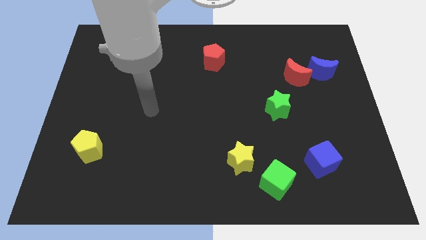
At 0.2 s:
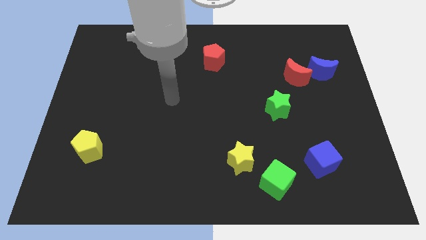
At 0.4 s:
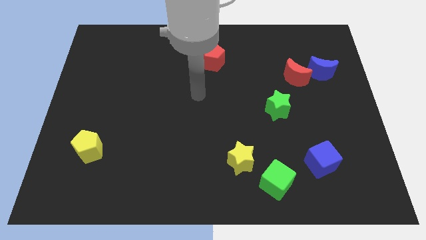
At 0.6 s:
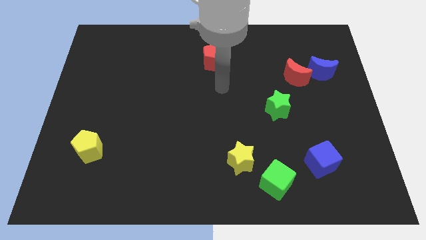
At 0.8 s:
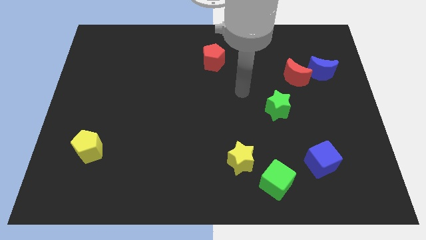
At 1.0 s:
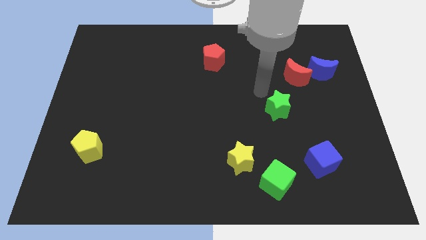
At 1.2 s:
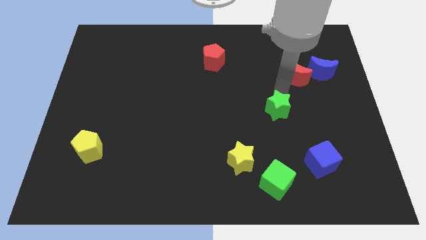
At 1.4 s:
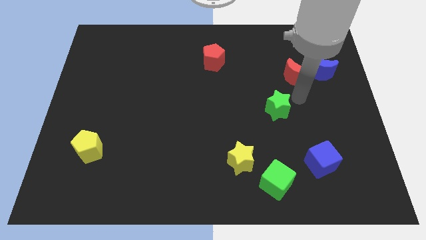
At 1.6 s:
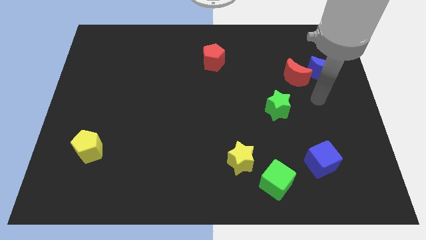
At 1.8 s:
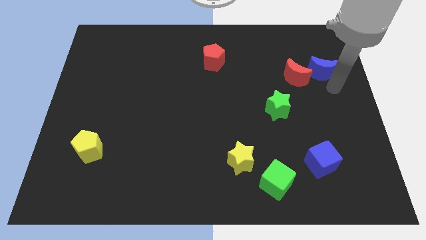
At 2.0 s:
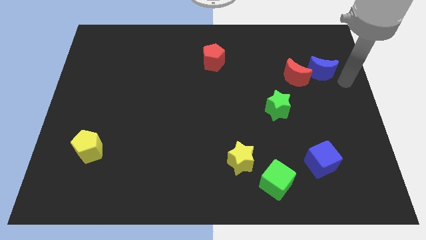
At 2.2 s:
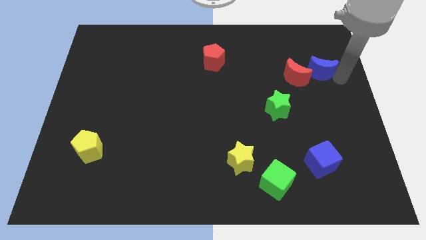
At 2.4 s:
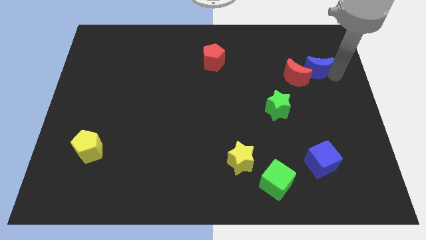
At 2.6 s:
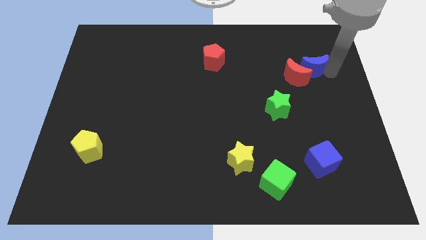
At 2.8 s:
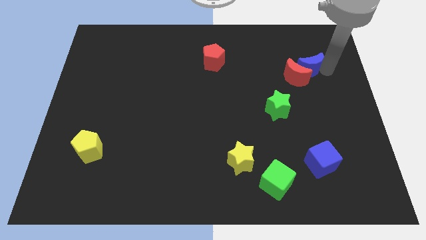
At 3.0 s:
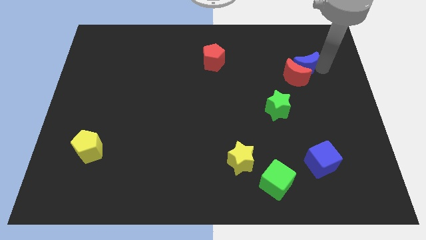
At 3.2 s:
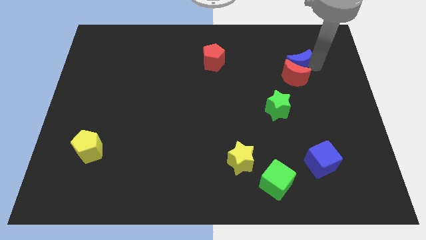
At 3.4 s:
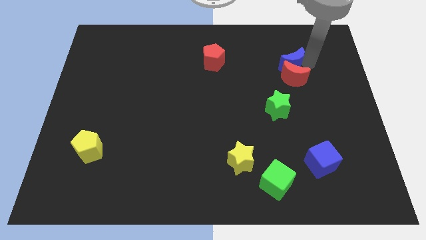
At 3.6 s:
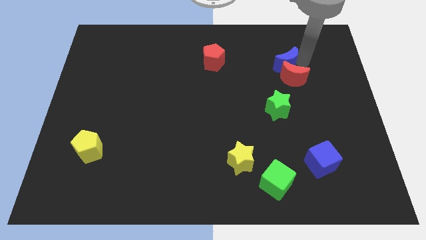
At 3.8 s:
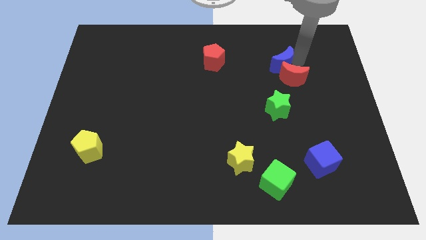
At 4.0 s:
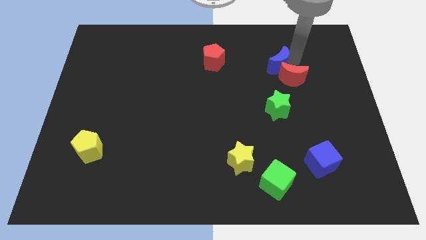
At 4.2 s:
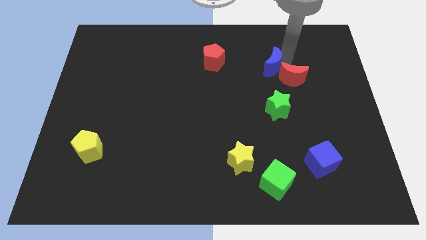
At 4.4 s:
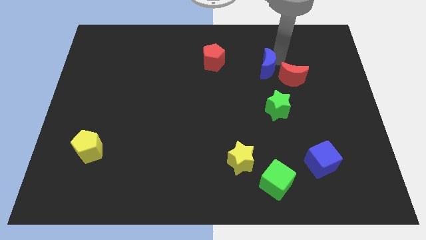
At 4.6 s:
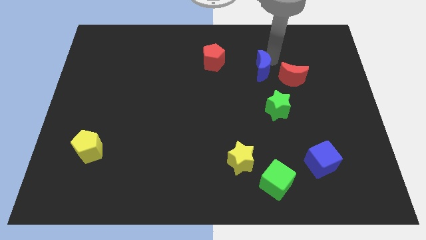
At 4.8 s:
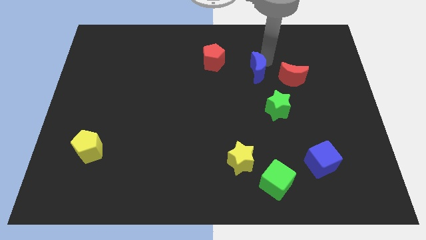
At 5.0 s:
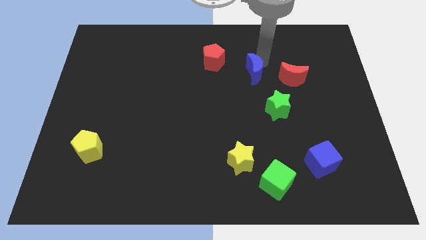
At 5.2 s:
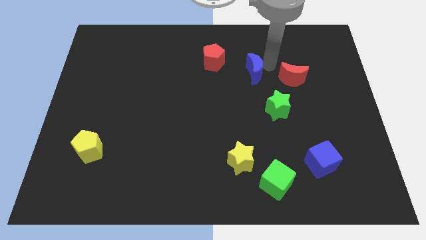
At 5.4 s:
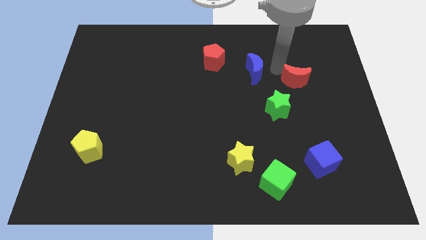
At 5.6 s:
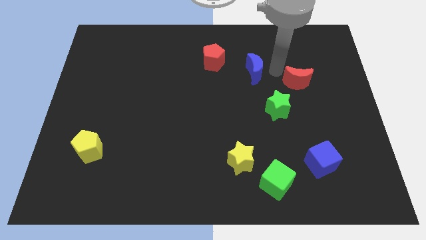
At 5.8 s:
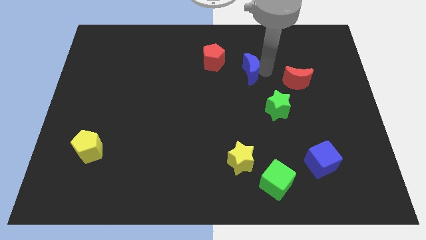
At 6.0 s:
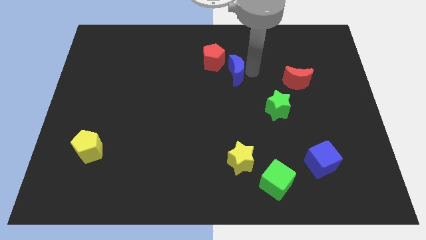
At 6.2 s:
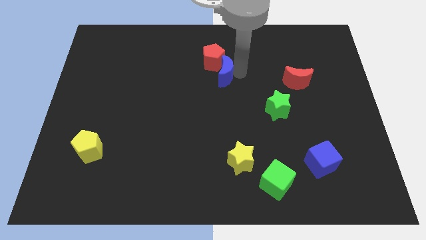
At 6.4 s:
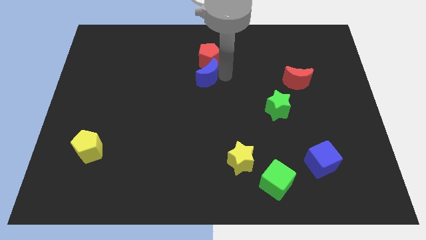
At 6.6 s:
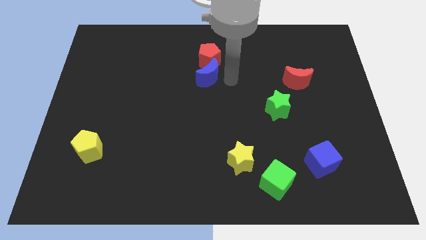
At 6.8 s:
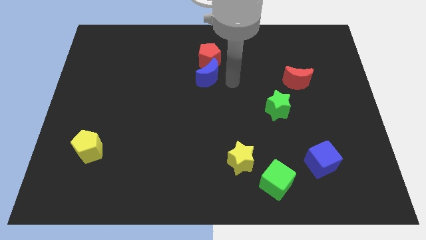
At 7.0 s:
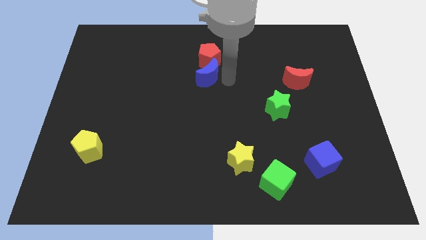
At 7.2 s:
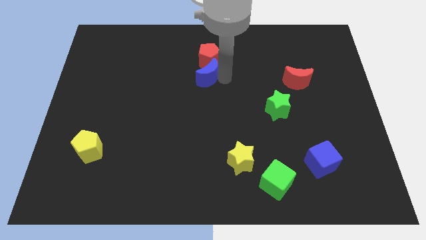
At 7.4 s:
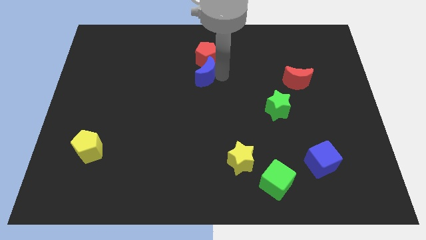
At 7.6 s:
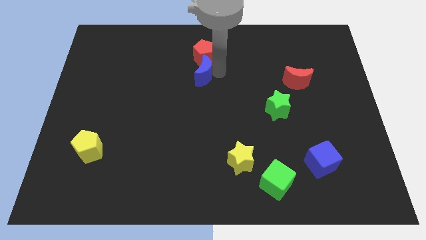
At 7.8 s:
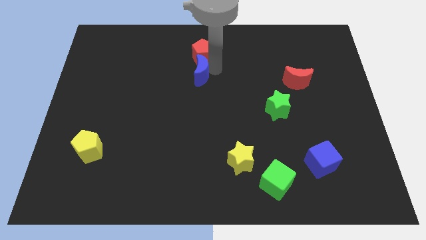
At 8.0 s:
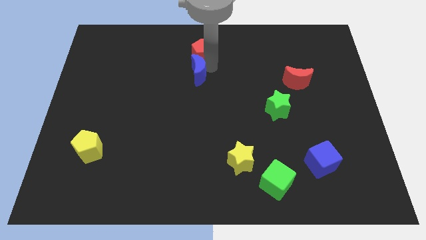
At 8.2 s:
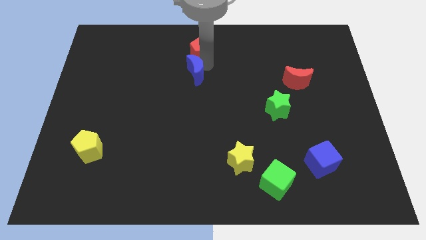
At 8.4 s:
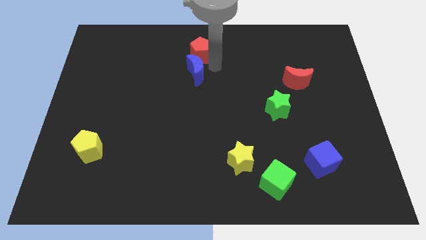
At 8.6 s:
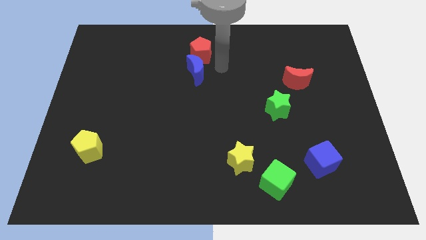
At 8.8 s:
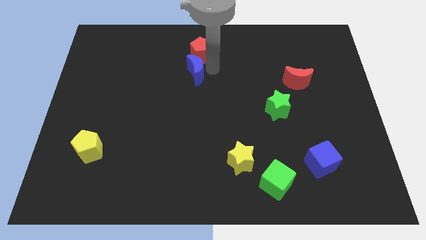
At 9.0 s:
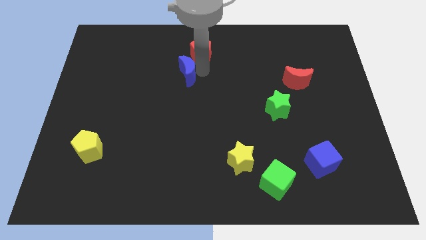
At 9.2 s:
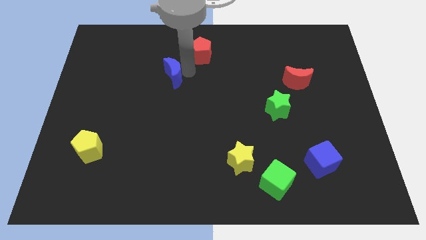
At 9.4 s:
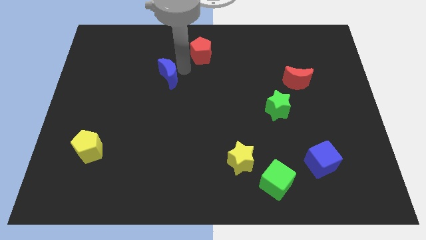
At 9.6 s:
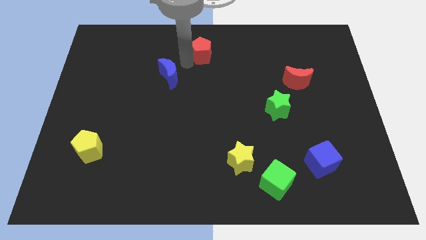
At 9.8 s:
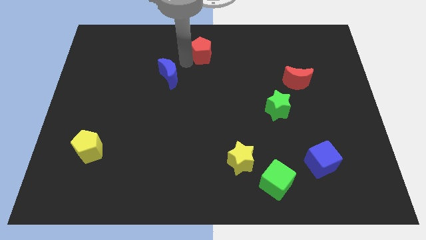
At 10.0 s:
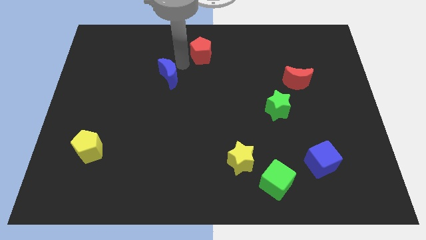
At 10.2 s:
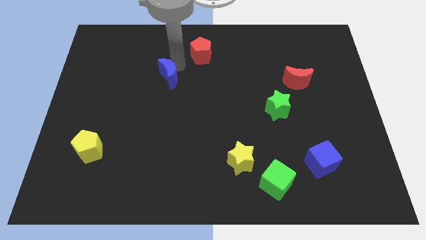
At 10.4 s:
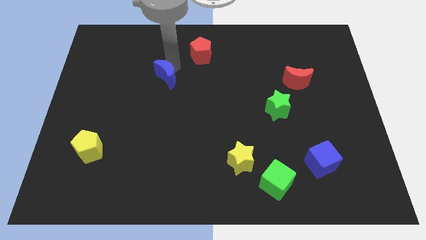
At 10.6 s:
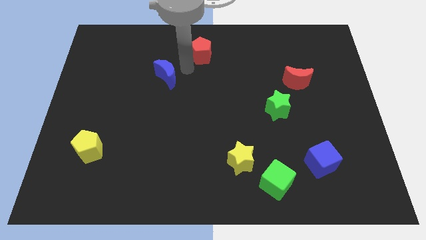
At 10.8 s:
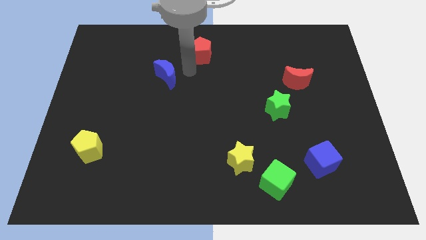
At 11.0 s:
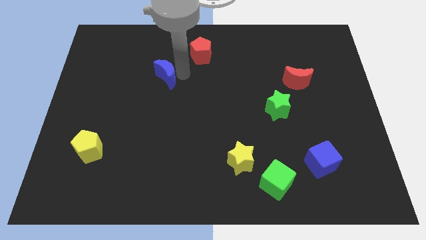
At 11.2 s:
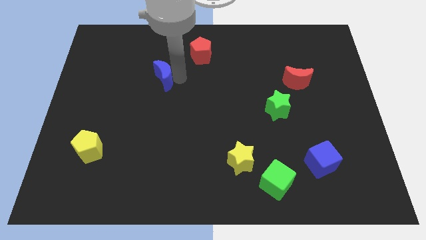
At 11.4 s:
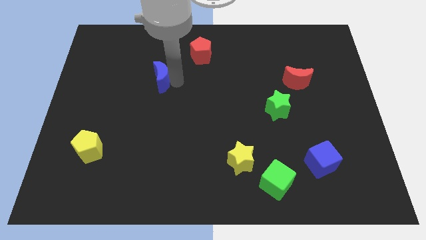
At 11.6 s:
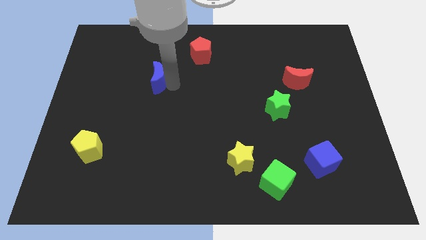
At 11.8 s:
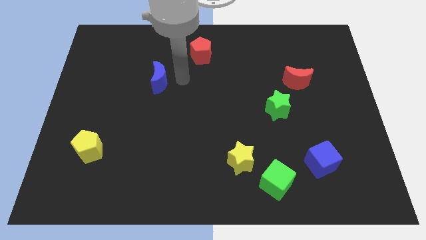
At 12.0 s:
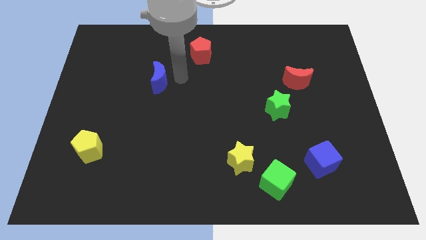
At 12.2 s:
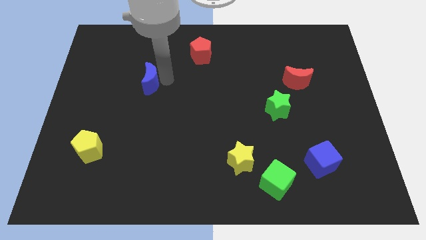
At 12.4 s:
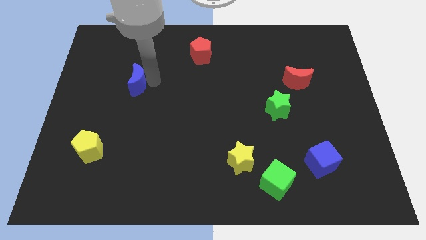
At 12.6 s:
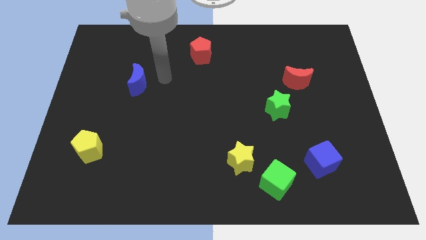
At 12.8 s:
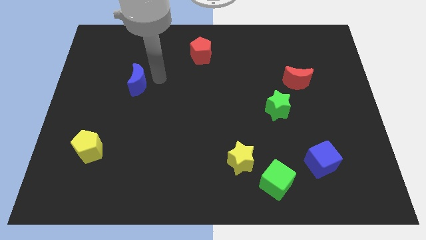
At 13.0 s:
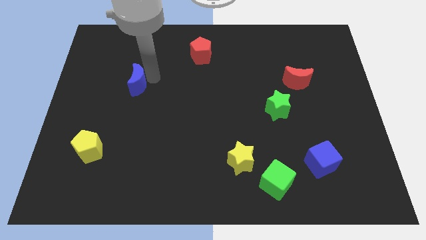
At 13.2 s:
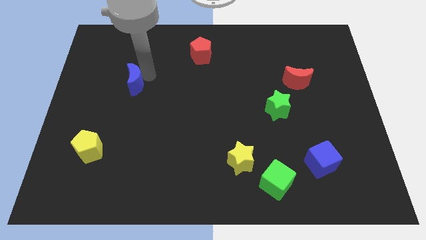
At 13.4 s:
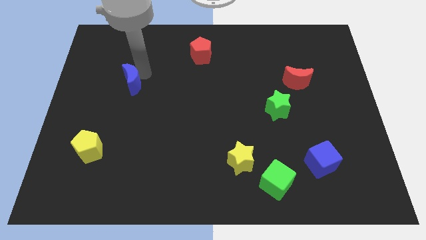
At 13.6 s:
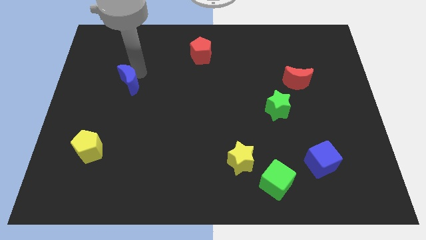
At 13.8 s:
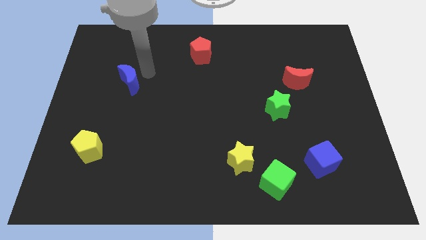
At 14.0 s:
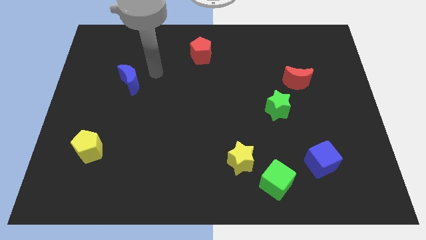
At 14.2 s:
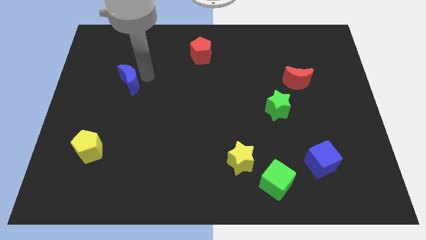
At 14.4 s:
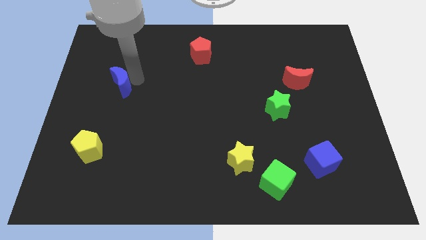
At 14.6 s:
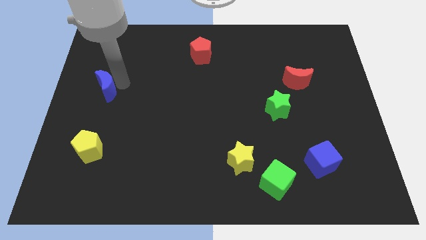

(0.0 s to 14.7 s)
move the blue moon to the left side
